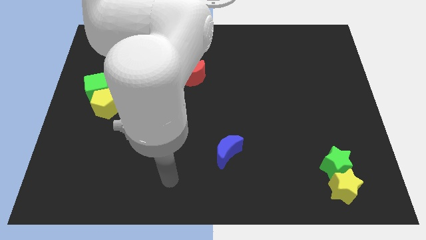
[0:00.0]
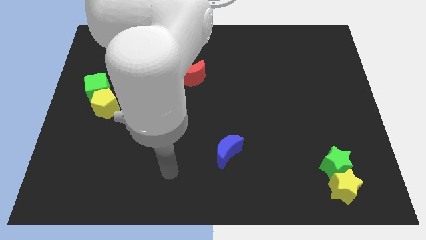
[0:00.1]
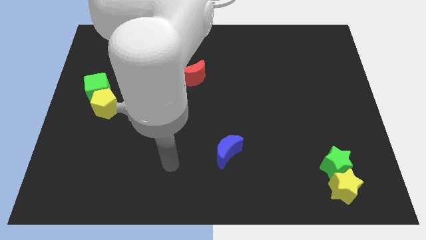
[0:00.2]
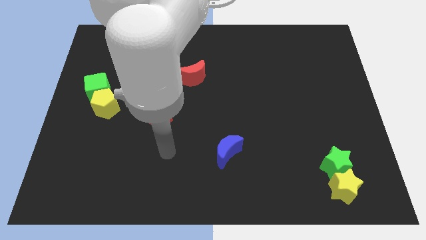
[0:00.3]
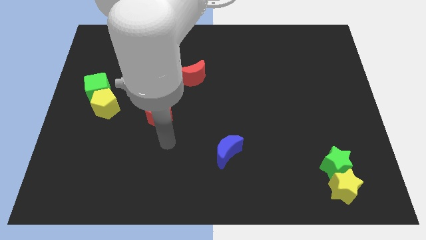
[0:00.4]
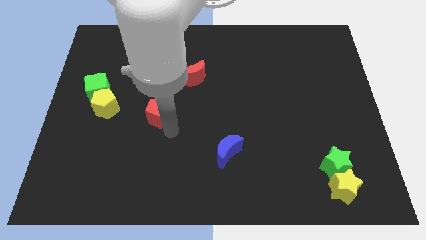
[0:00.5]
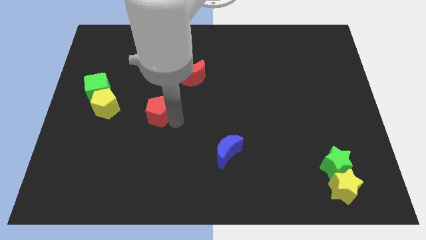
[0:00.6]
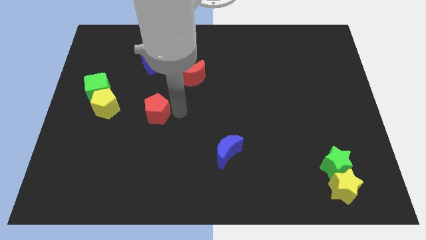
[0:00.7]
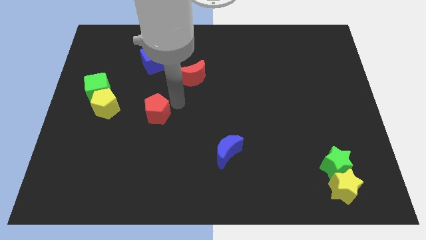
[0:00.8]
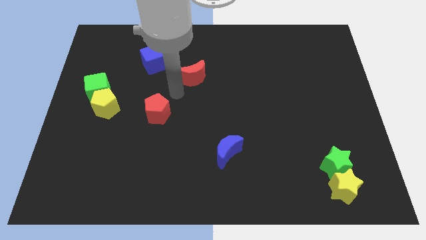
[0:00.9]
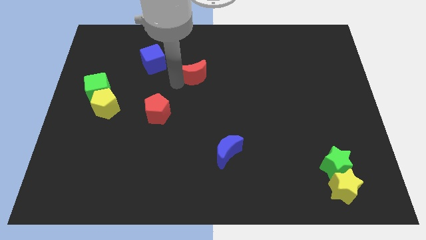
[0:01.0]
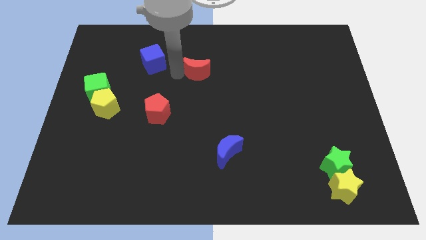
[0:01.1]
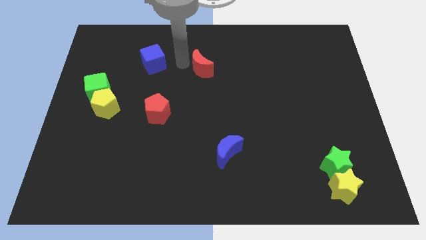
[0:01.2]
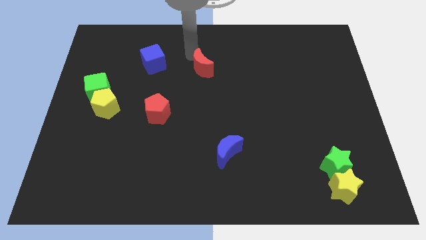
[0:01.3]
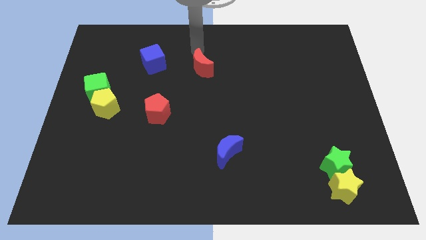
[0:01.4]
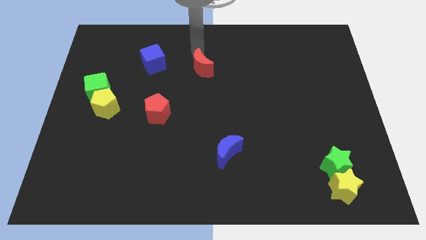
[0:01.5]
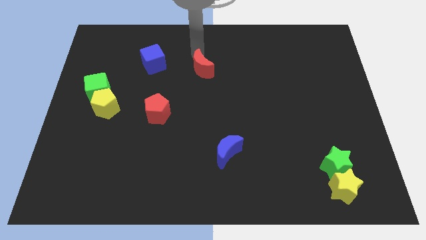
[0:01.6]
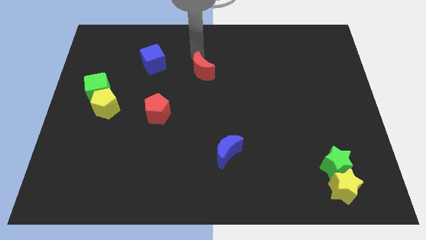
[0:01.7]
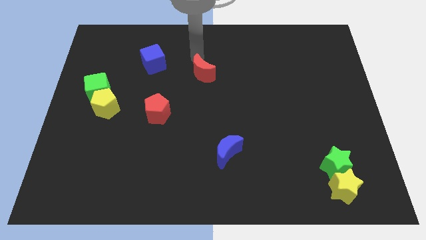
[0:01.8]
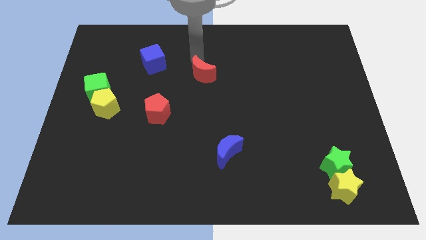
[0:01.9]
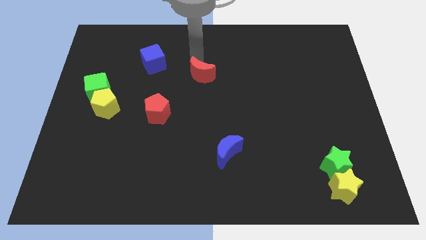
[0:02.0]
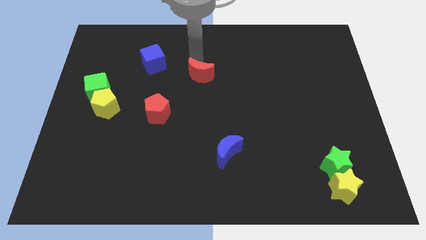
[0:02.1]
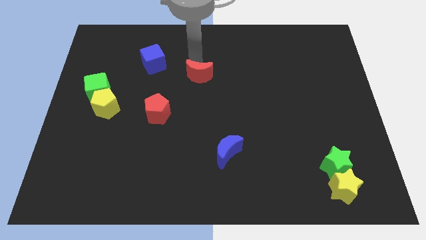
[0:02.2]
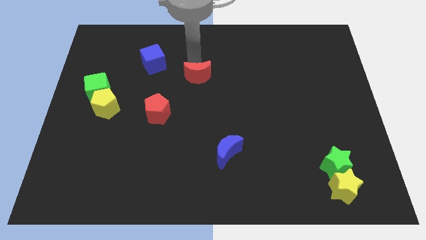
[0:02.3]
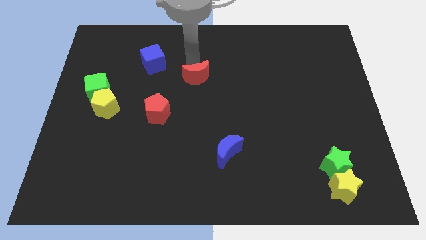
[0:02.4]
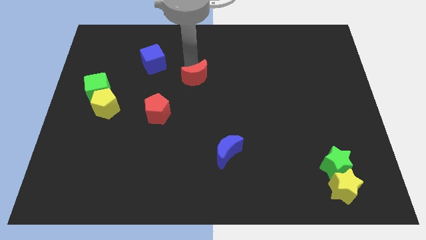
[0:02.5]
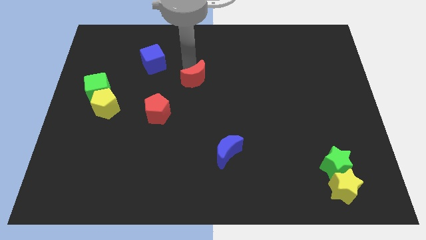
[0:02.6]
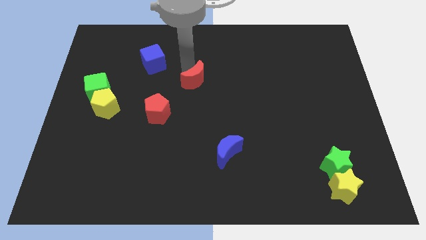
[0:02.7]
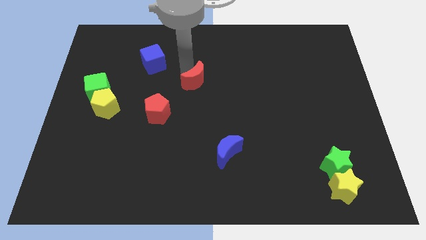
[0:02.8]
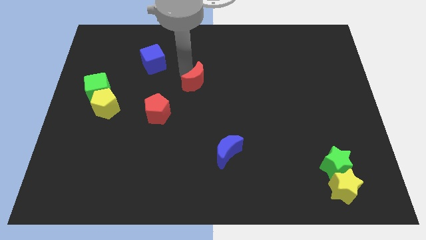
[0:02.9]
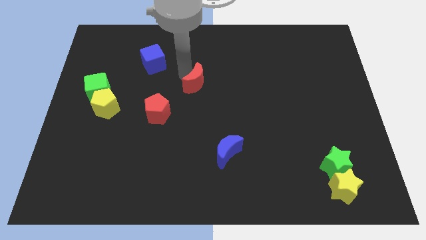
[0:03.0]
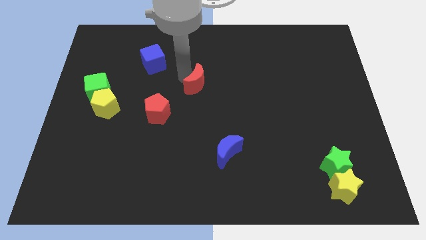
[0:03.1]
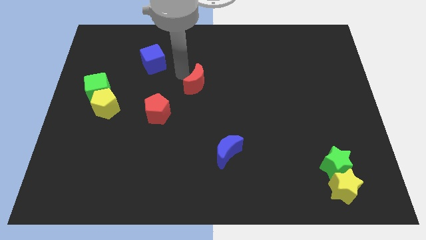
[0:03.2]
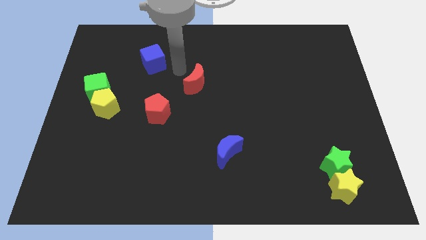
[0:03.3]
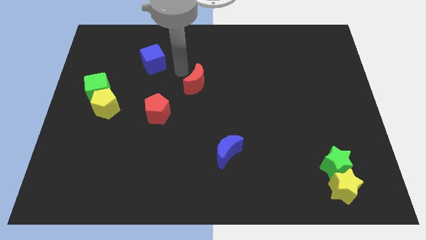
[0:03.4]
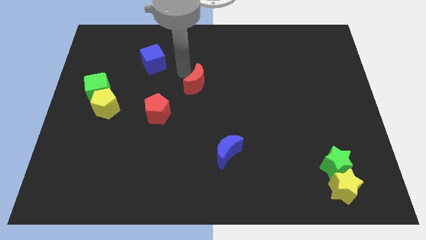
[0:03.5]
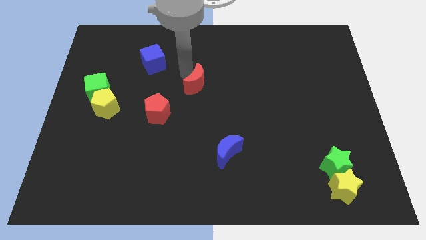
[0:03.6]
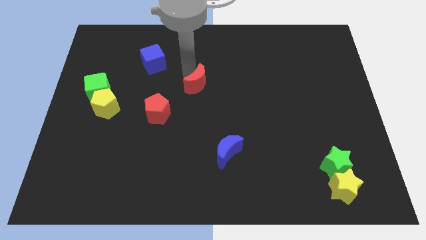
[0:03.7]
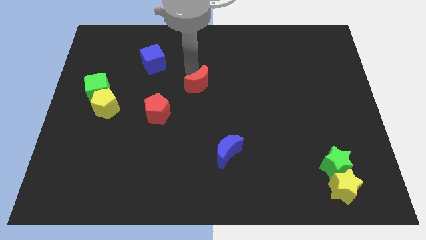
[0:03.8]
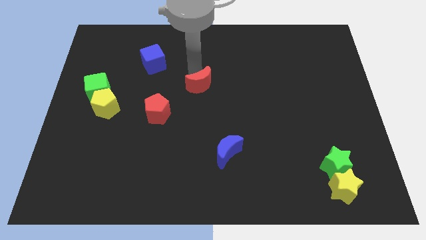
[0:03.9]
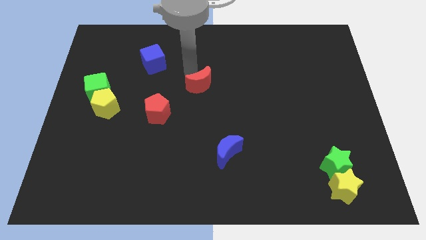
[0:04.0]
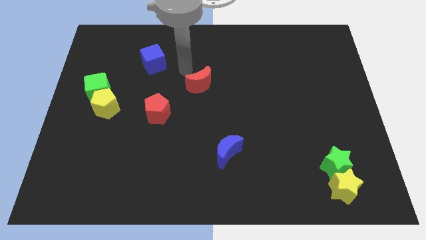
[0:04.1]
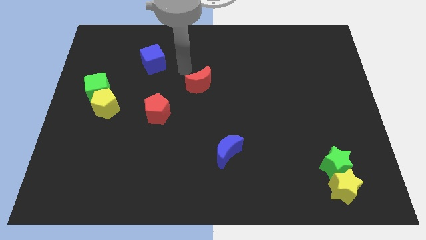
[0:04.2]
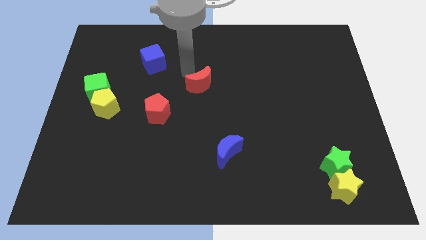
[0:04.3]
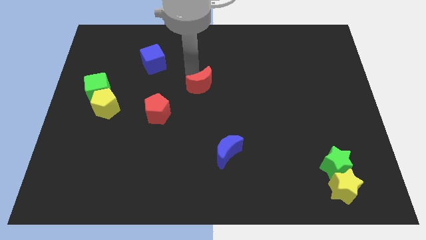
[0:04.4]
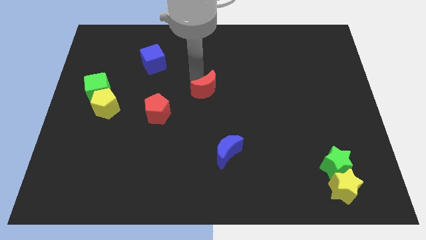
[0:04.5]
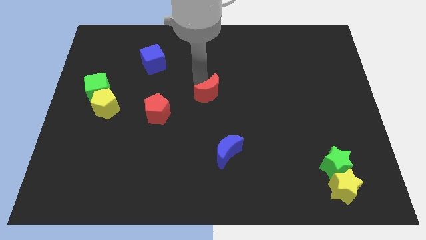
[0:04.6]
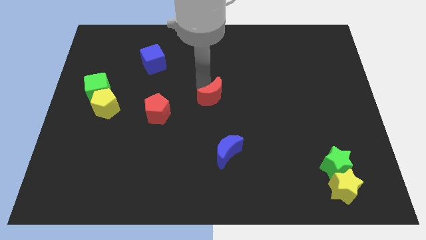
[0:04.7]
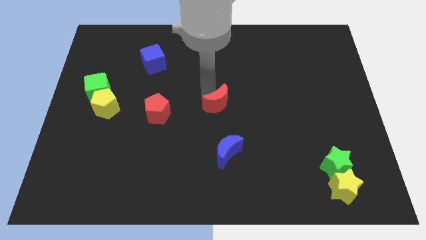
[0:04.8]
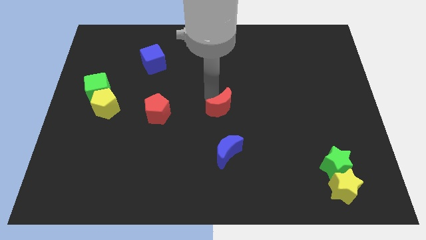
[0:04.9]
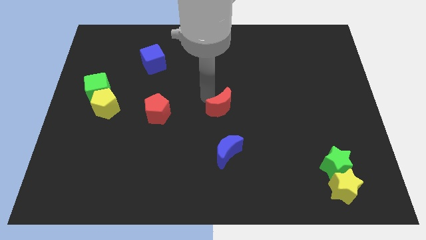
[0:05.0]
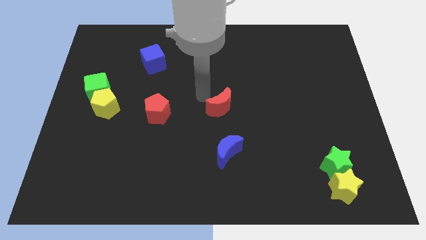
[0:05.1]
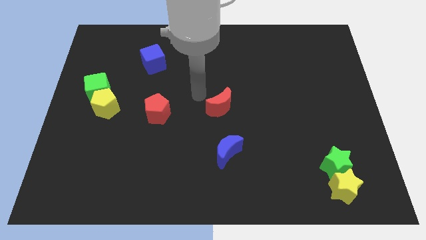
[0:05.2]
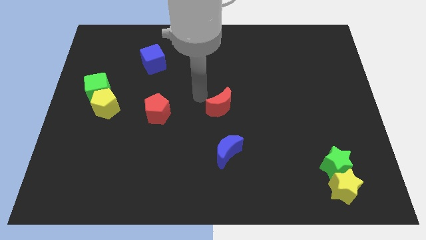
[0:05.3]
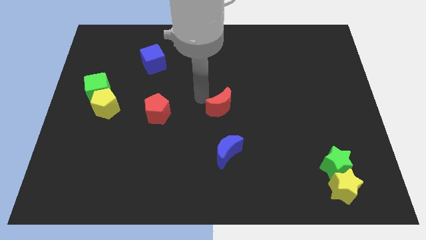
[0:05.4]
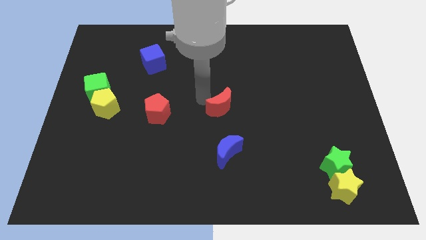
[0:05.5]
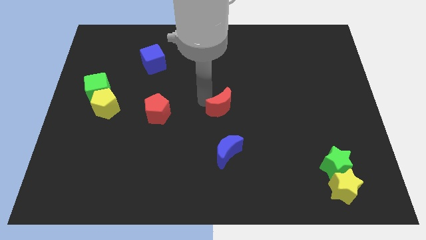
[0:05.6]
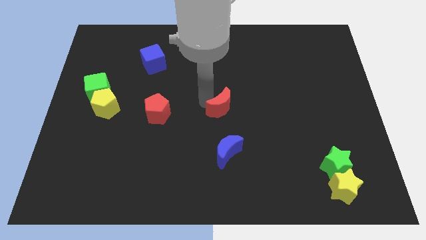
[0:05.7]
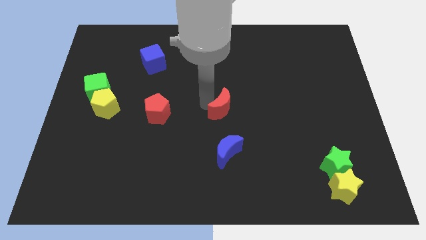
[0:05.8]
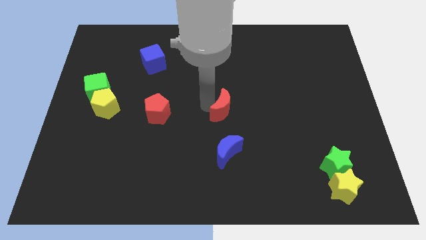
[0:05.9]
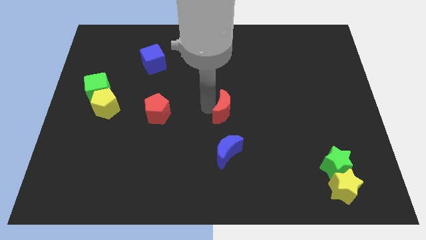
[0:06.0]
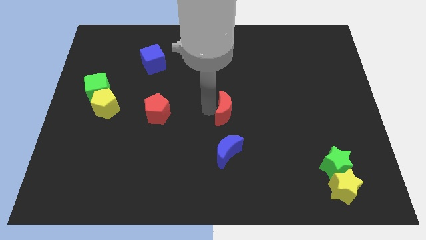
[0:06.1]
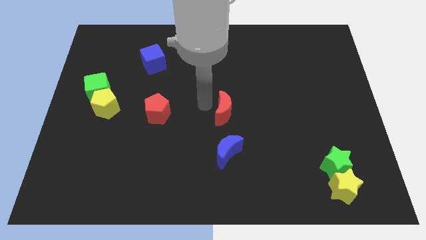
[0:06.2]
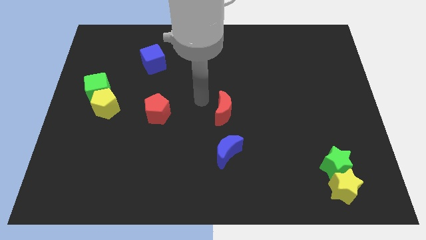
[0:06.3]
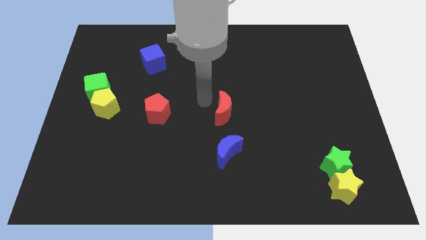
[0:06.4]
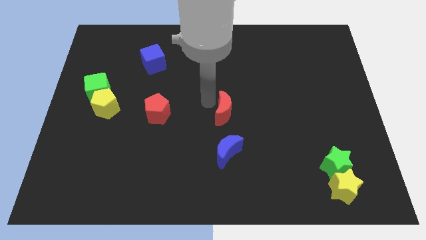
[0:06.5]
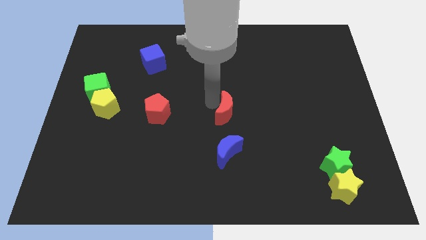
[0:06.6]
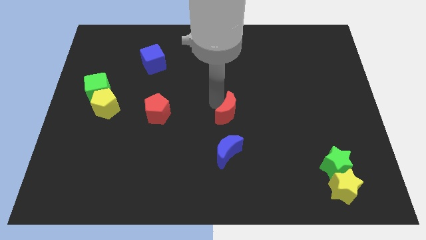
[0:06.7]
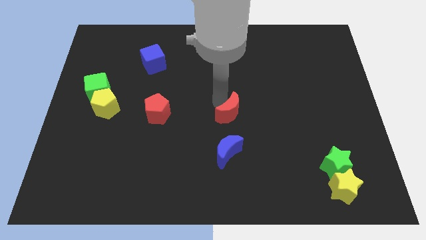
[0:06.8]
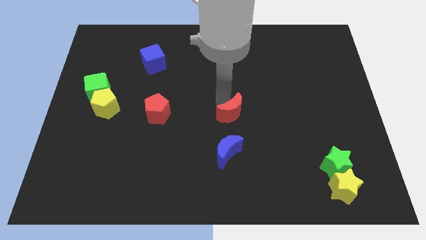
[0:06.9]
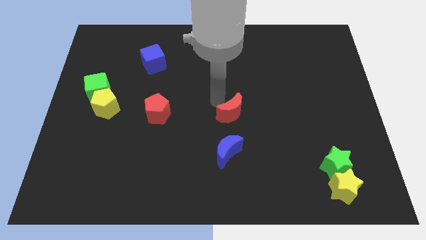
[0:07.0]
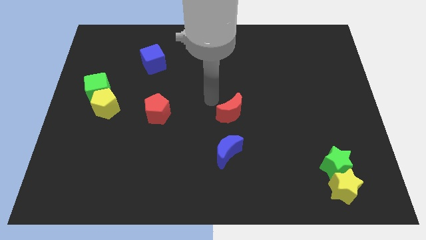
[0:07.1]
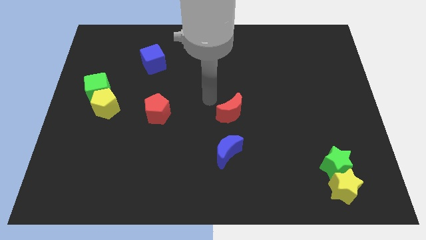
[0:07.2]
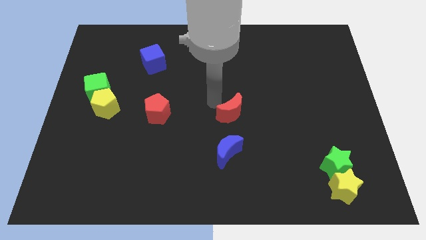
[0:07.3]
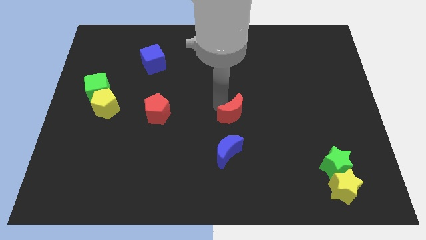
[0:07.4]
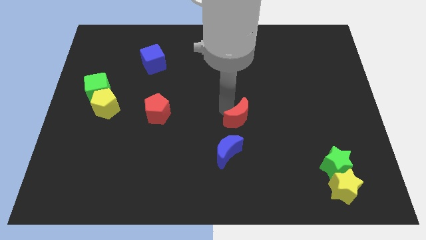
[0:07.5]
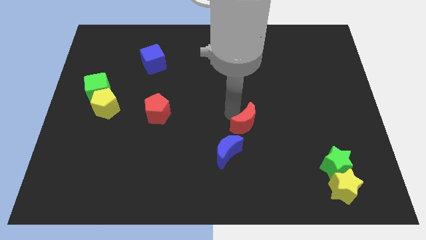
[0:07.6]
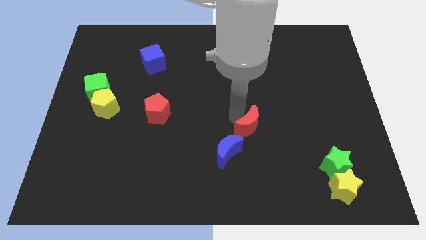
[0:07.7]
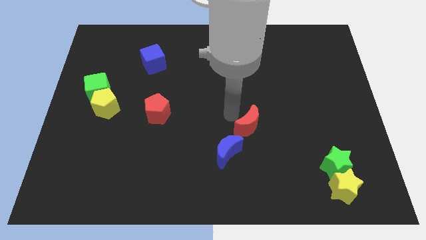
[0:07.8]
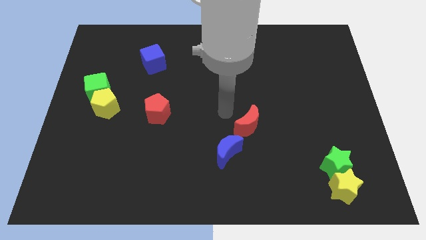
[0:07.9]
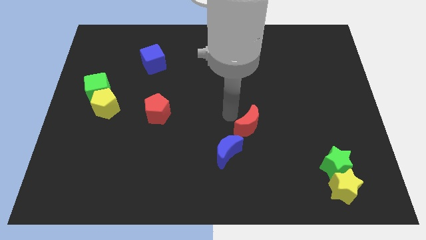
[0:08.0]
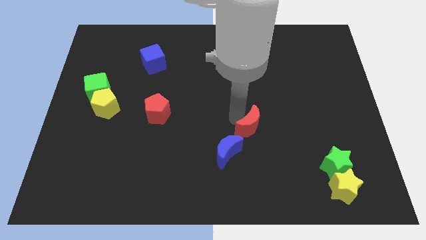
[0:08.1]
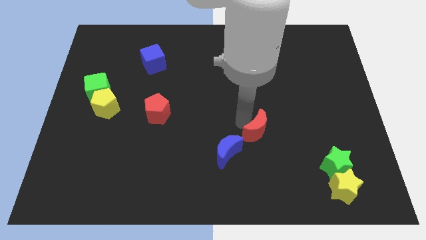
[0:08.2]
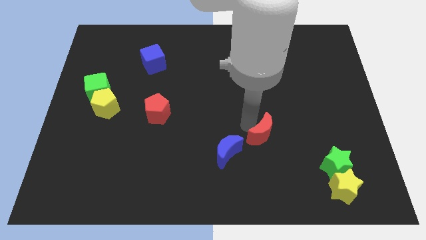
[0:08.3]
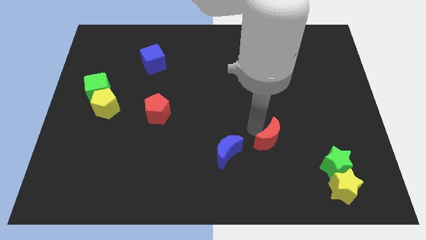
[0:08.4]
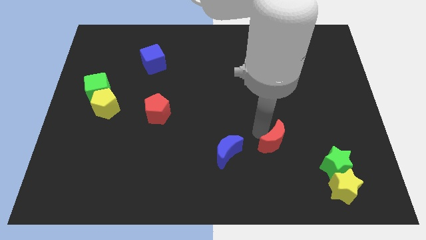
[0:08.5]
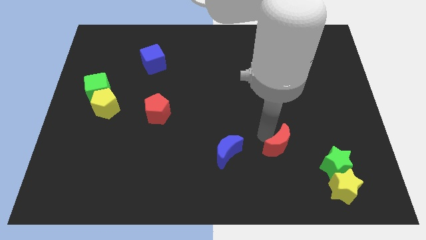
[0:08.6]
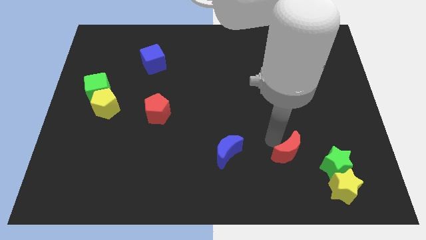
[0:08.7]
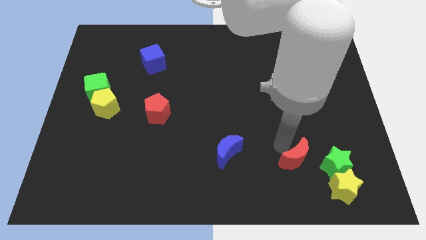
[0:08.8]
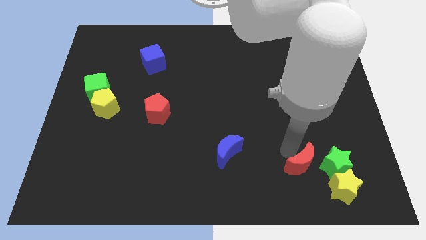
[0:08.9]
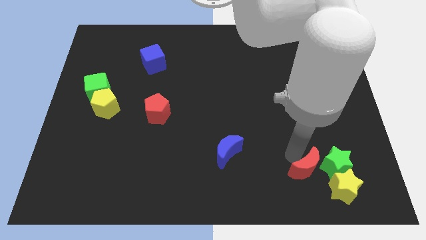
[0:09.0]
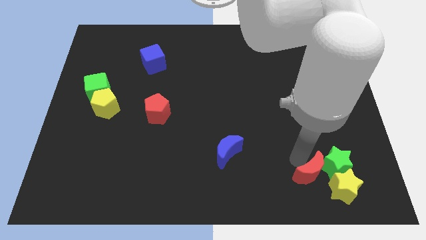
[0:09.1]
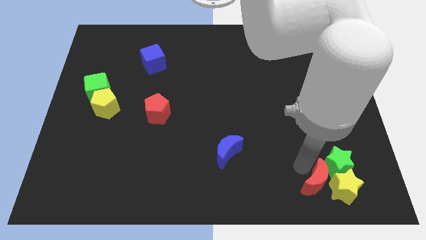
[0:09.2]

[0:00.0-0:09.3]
put the red moon close to the yellow star
